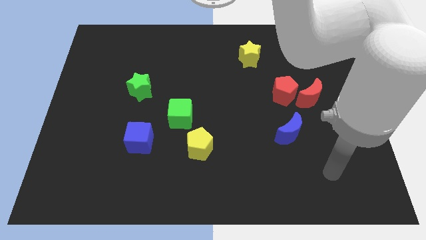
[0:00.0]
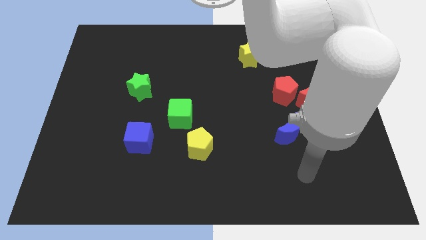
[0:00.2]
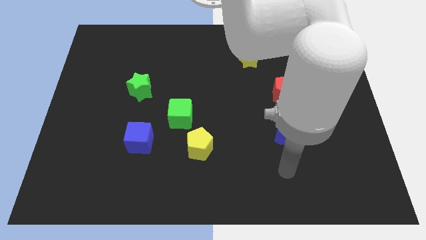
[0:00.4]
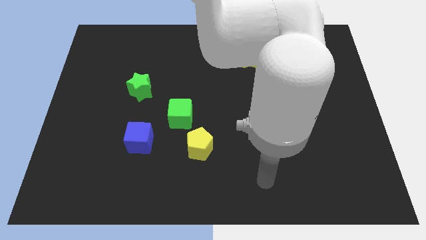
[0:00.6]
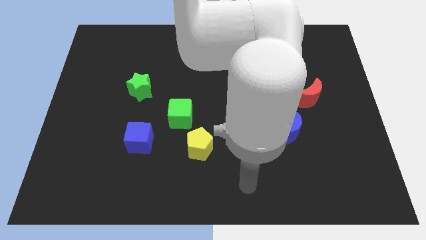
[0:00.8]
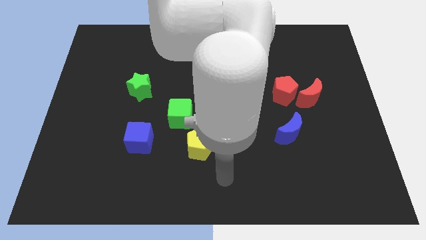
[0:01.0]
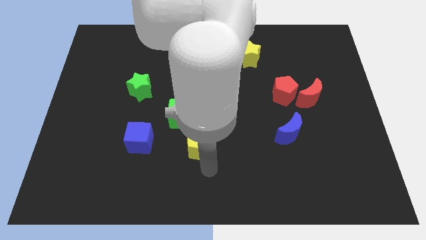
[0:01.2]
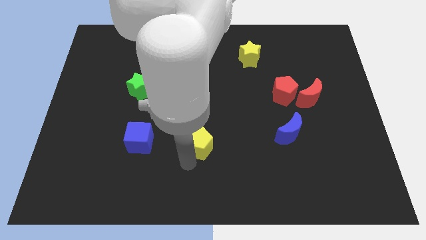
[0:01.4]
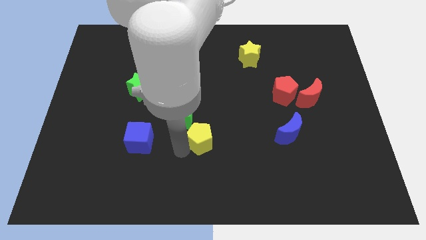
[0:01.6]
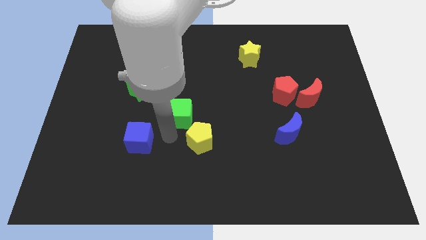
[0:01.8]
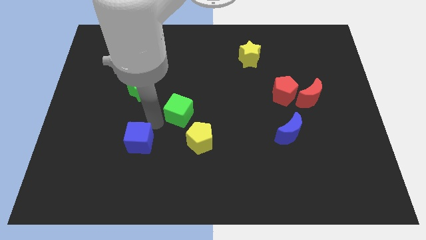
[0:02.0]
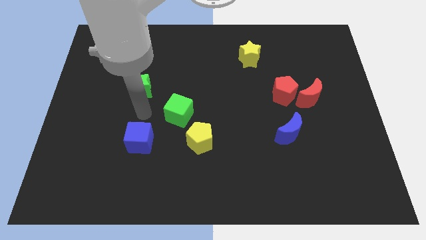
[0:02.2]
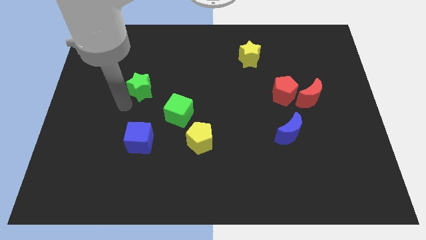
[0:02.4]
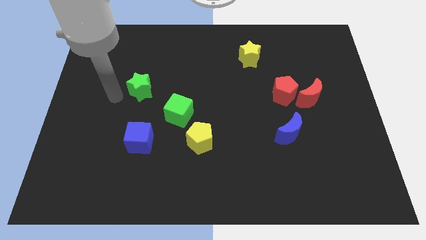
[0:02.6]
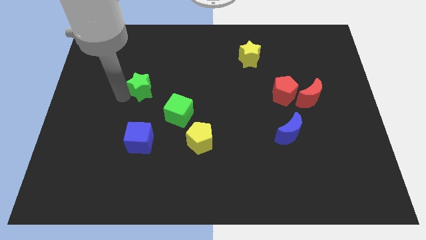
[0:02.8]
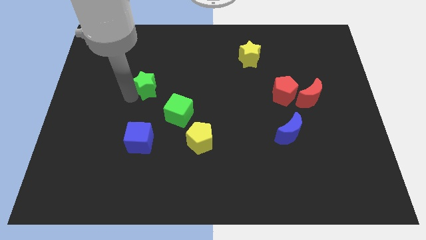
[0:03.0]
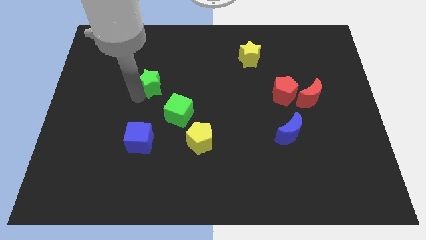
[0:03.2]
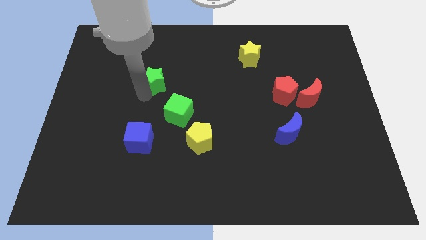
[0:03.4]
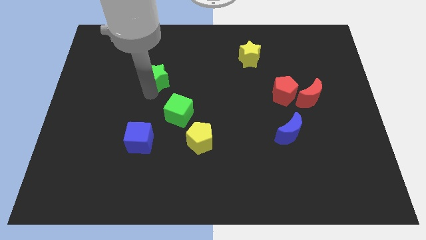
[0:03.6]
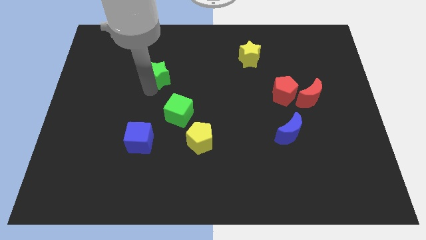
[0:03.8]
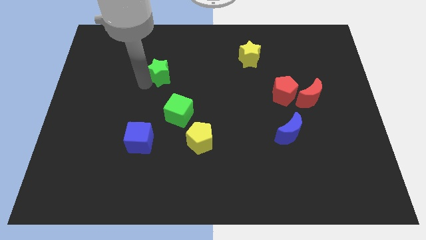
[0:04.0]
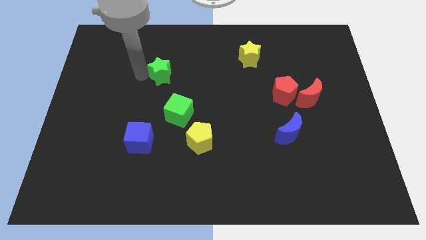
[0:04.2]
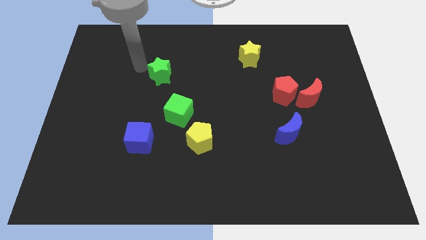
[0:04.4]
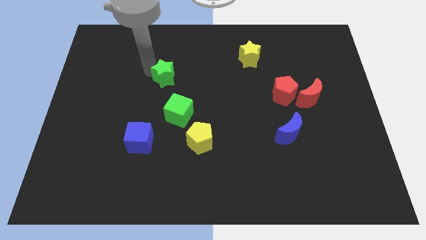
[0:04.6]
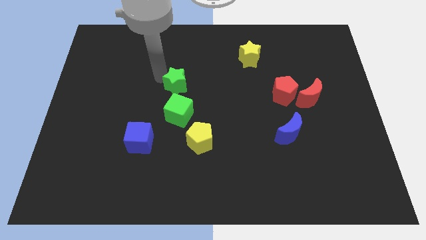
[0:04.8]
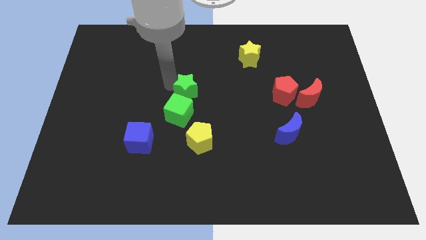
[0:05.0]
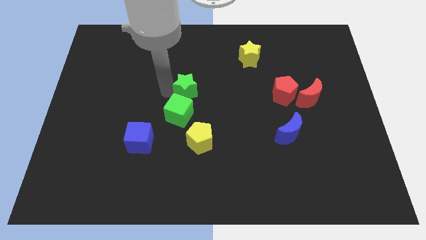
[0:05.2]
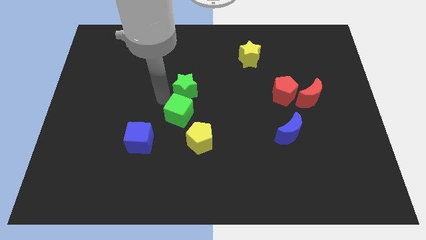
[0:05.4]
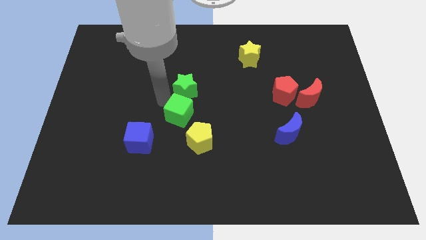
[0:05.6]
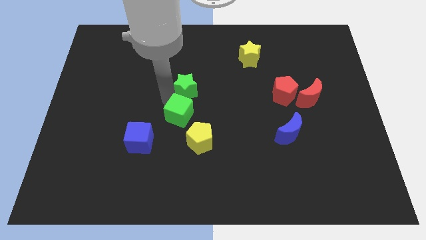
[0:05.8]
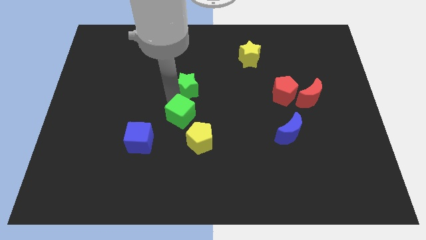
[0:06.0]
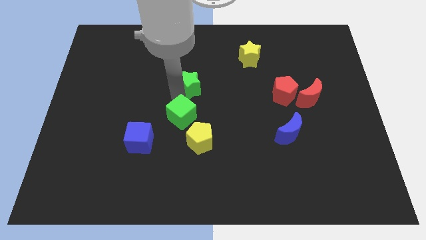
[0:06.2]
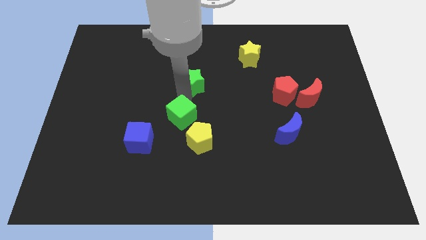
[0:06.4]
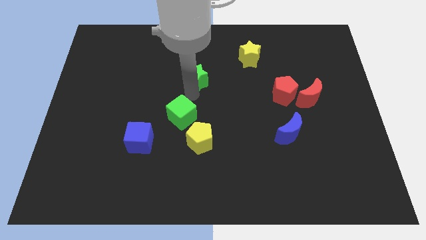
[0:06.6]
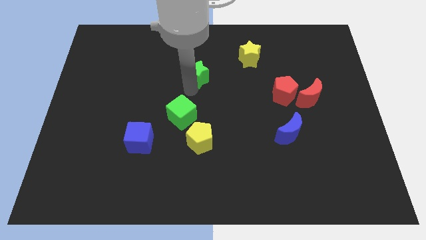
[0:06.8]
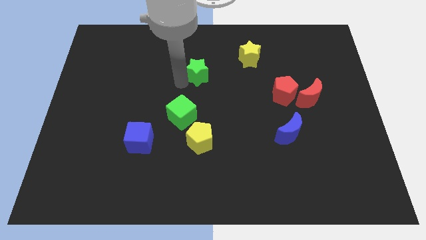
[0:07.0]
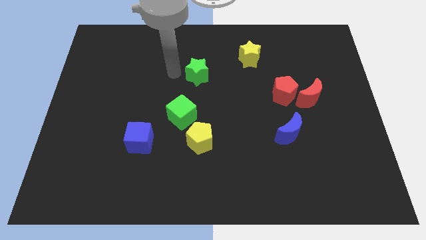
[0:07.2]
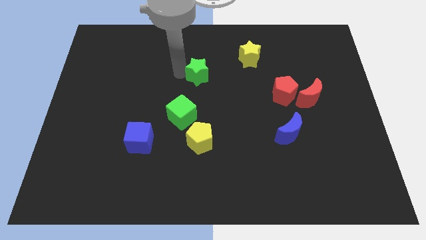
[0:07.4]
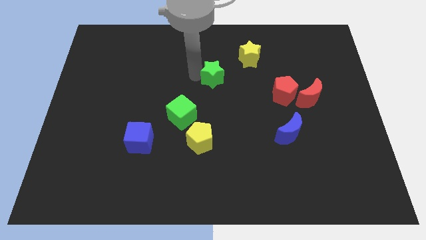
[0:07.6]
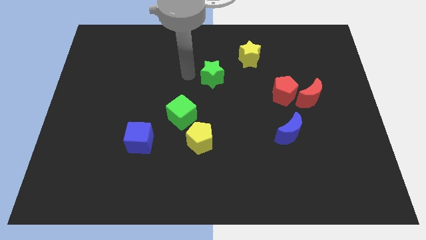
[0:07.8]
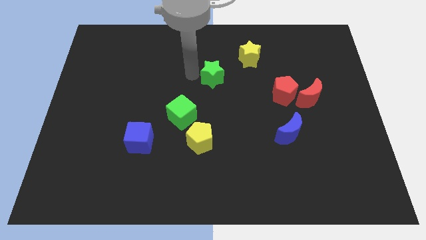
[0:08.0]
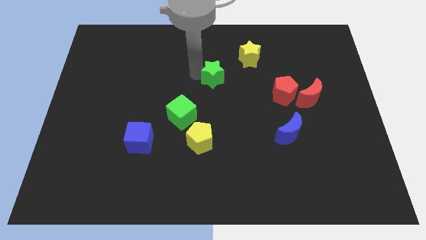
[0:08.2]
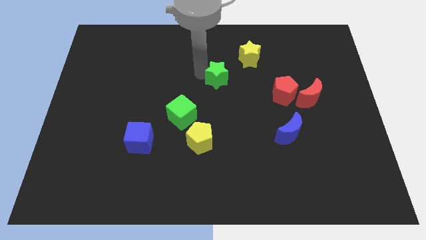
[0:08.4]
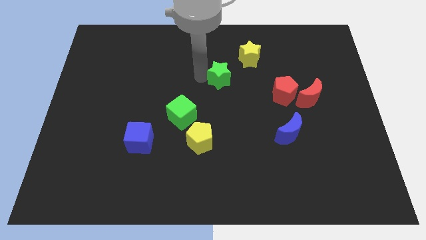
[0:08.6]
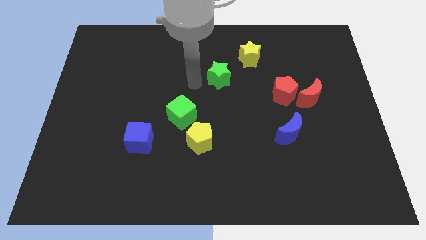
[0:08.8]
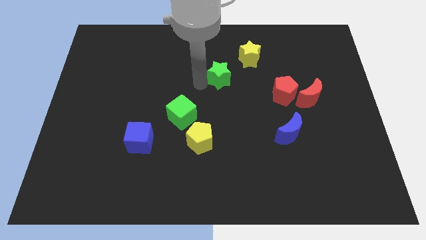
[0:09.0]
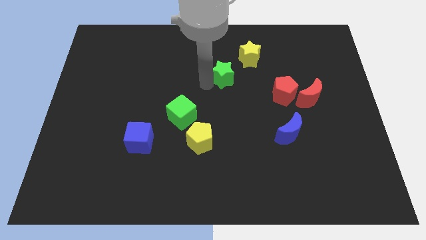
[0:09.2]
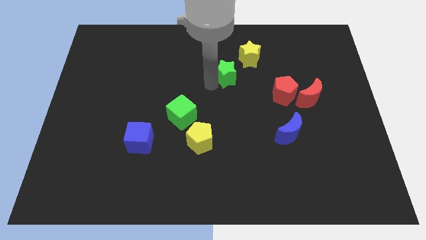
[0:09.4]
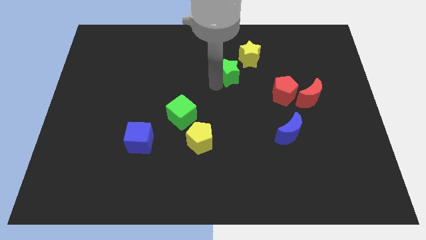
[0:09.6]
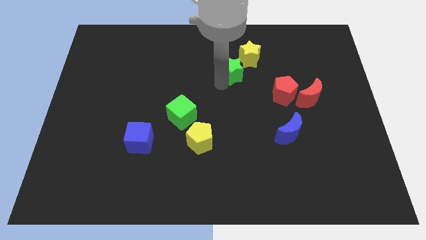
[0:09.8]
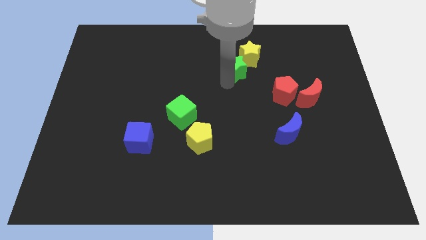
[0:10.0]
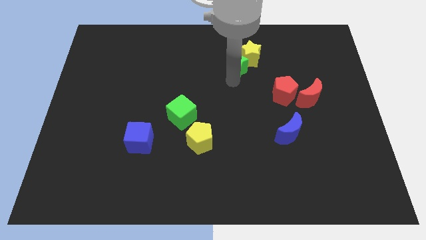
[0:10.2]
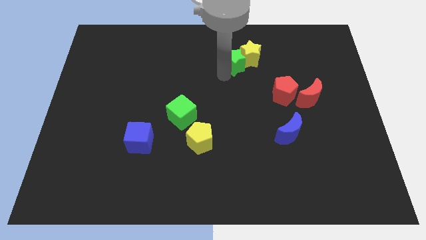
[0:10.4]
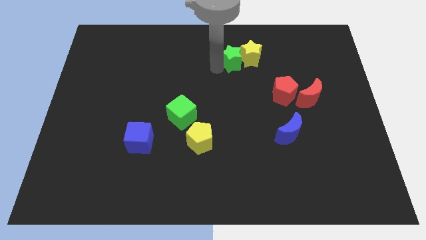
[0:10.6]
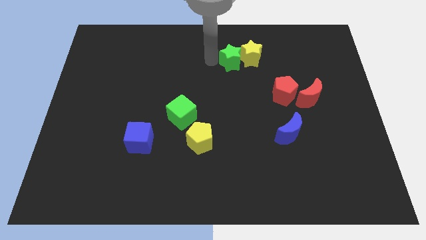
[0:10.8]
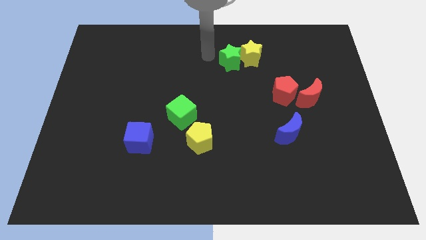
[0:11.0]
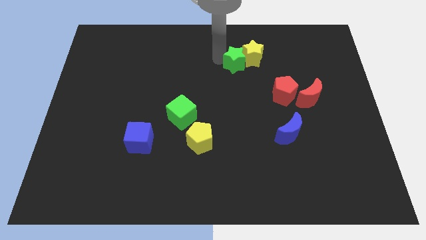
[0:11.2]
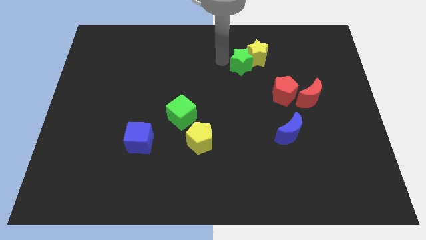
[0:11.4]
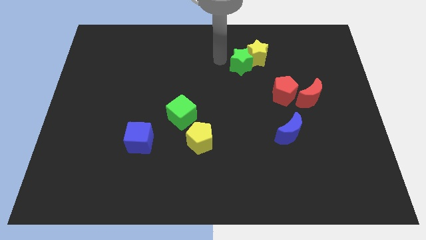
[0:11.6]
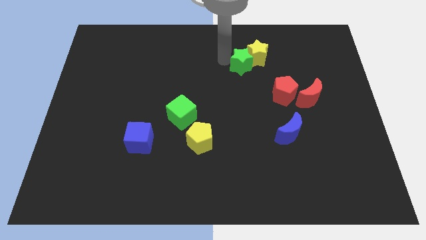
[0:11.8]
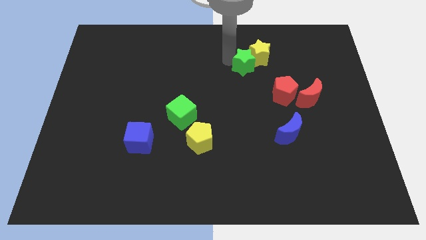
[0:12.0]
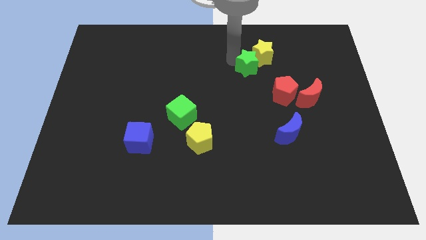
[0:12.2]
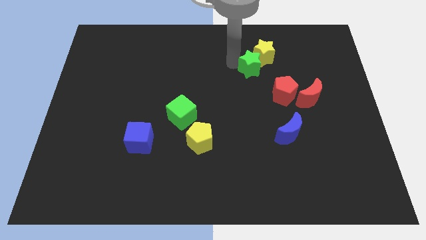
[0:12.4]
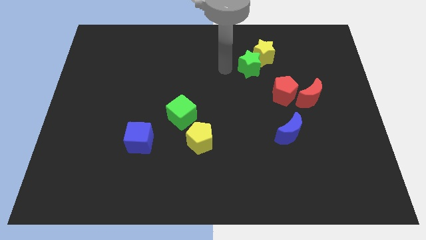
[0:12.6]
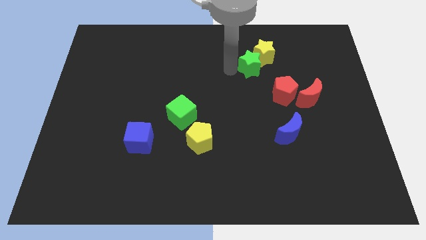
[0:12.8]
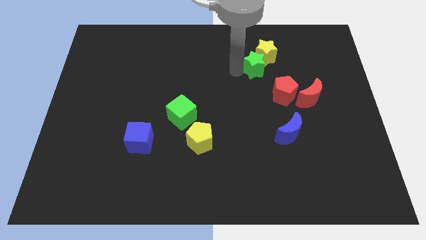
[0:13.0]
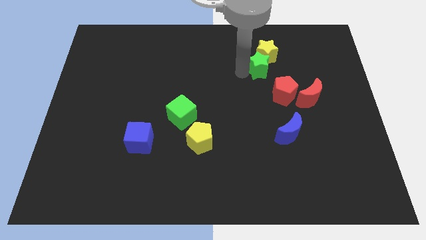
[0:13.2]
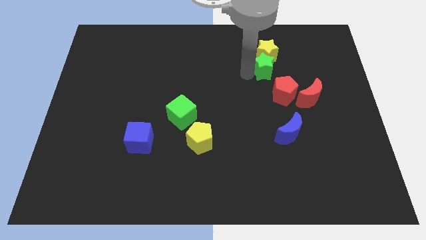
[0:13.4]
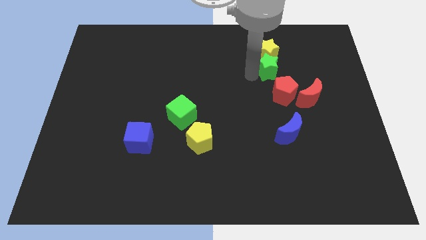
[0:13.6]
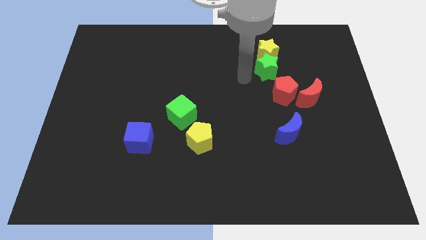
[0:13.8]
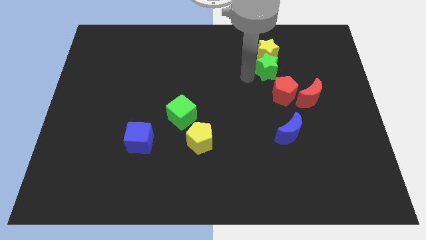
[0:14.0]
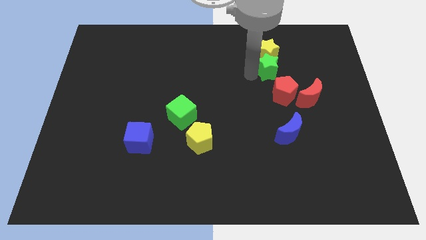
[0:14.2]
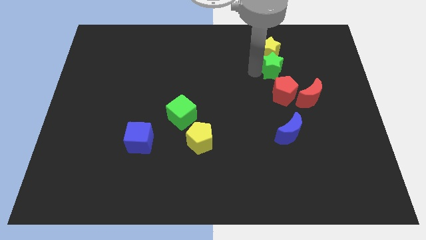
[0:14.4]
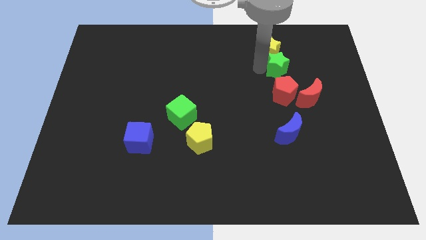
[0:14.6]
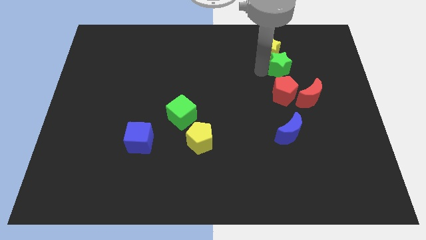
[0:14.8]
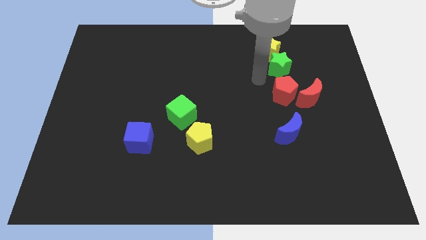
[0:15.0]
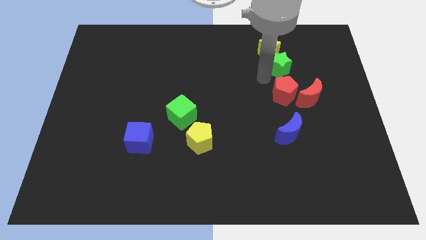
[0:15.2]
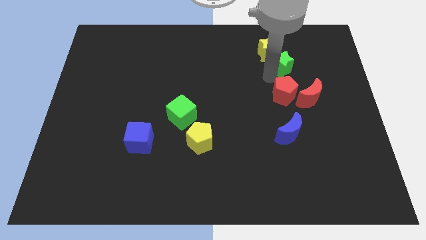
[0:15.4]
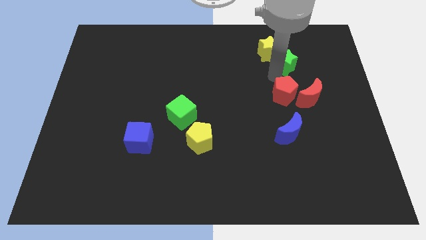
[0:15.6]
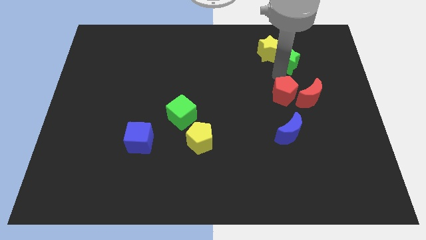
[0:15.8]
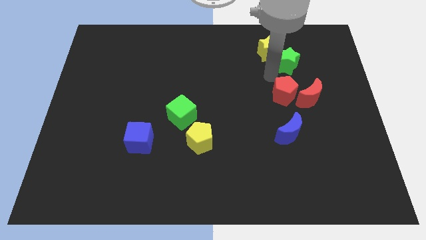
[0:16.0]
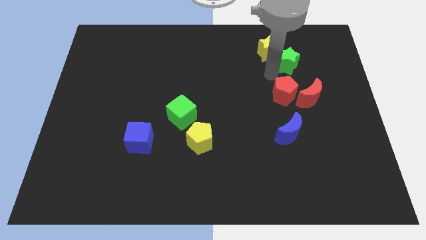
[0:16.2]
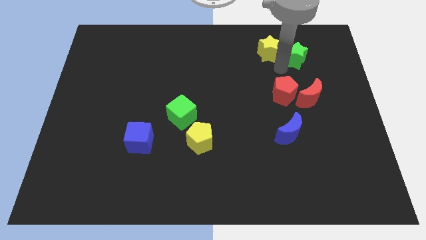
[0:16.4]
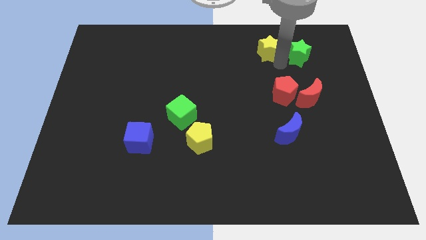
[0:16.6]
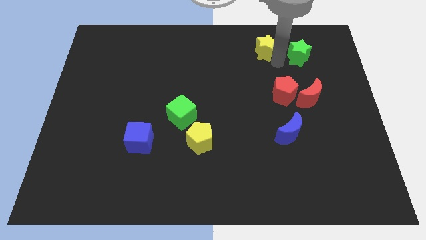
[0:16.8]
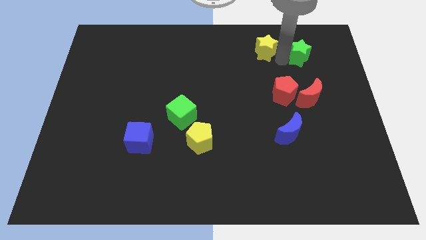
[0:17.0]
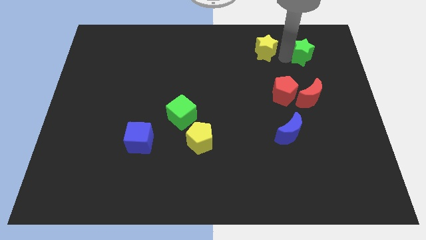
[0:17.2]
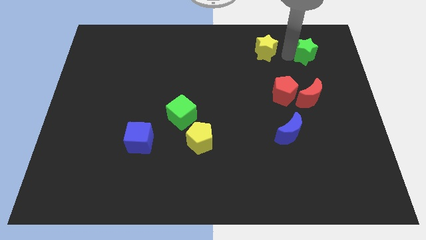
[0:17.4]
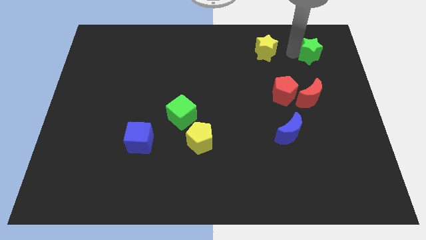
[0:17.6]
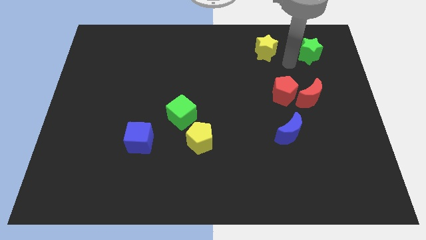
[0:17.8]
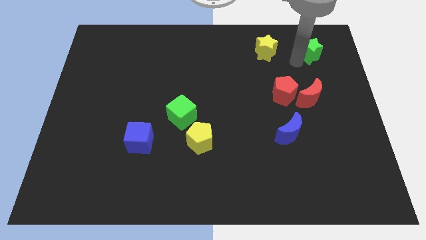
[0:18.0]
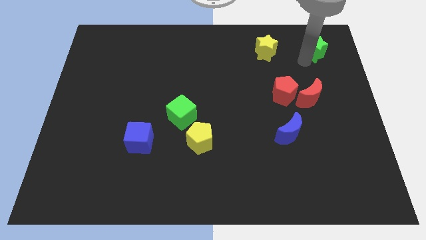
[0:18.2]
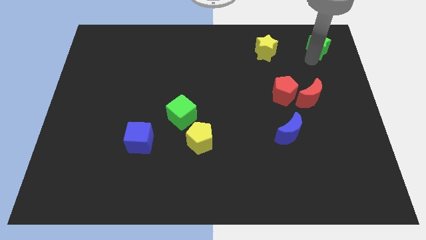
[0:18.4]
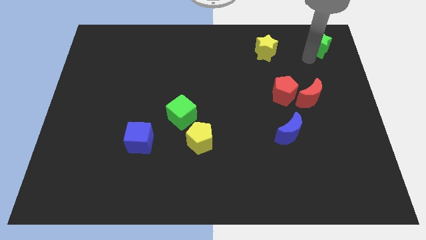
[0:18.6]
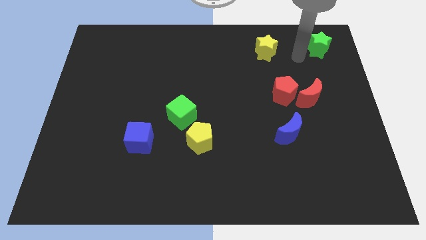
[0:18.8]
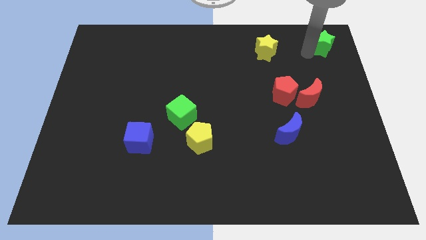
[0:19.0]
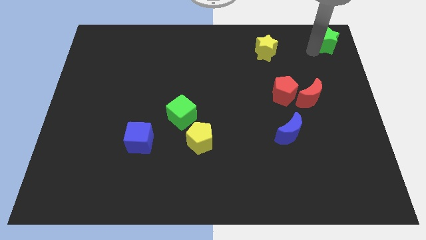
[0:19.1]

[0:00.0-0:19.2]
slide the green star to the upper right corner
